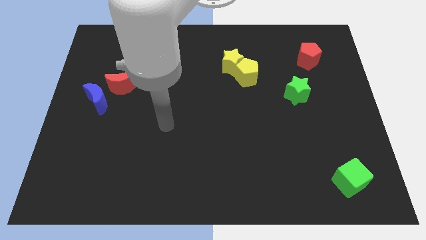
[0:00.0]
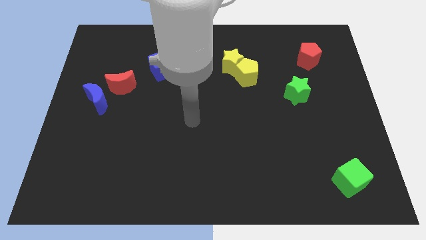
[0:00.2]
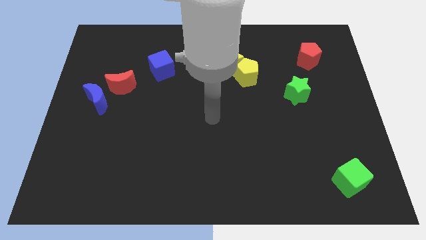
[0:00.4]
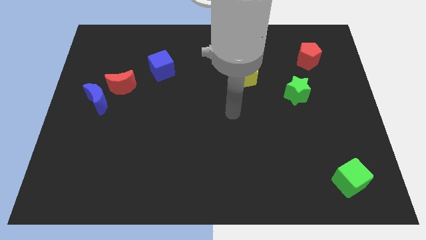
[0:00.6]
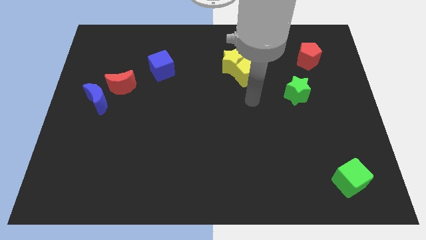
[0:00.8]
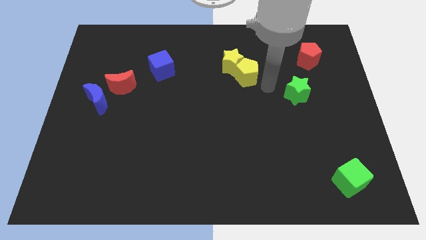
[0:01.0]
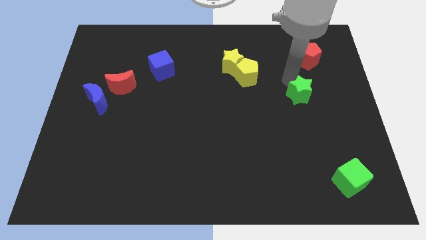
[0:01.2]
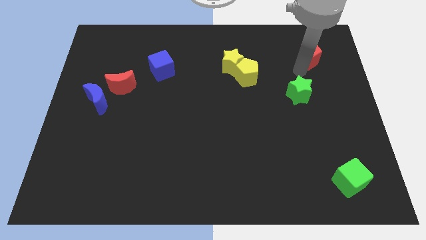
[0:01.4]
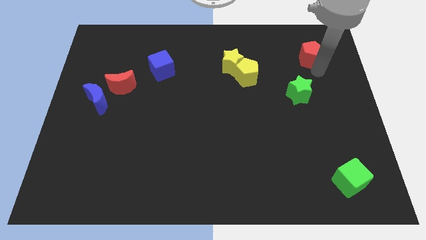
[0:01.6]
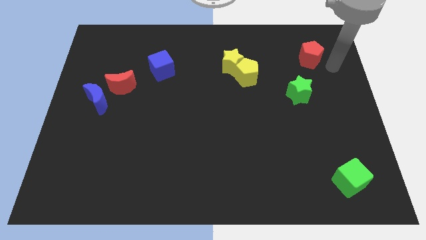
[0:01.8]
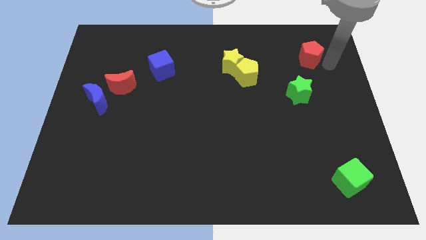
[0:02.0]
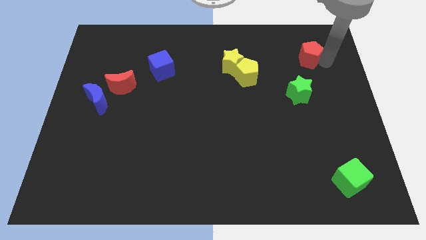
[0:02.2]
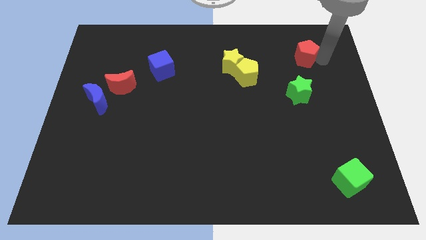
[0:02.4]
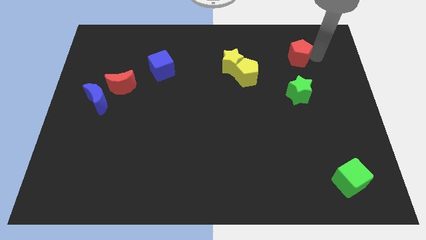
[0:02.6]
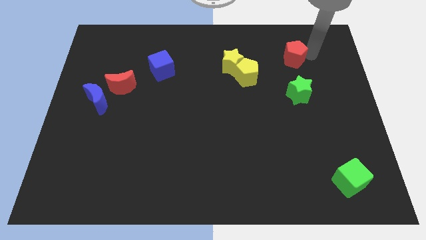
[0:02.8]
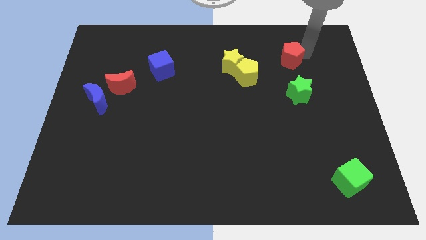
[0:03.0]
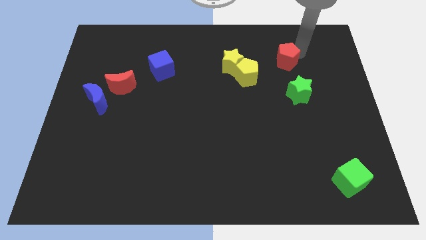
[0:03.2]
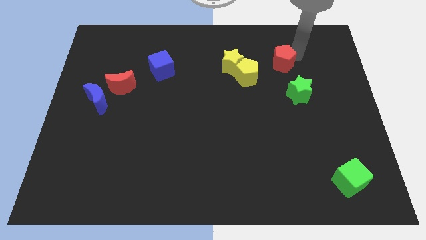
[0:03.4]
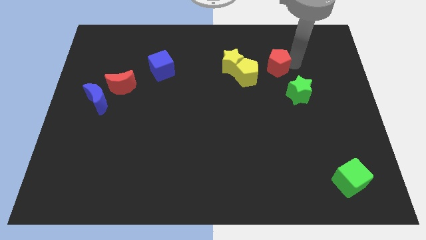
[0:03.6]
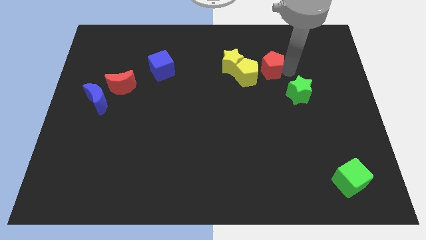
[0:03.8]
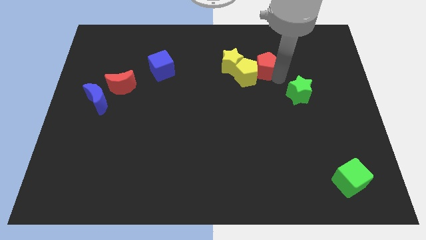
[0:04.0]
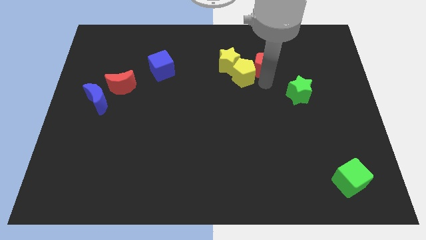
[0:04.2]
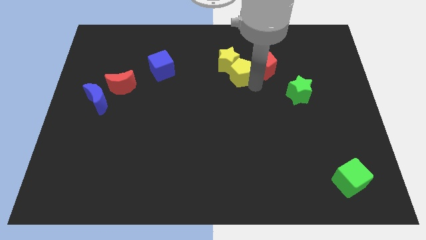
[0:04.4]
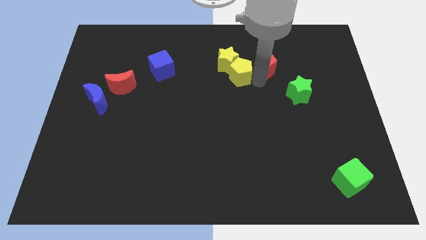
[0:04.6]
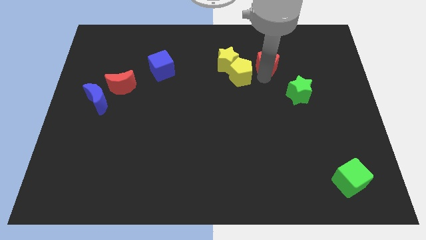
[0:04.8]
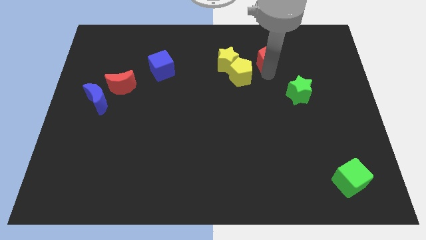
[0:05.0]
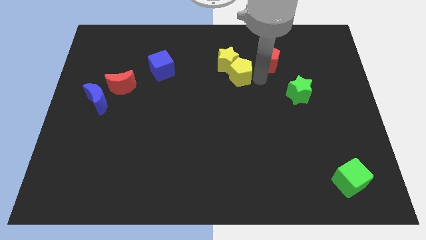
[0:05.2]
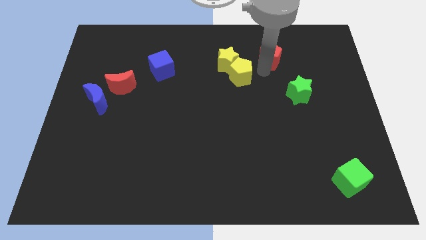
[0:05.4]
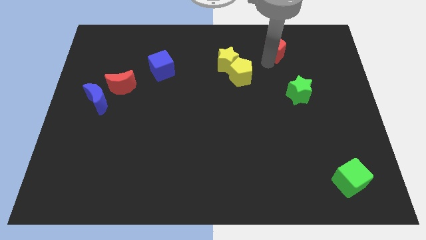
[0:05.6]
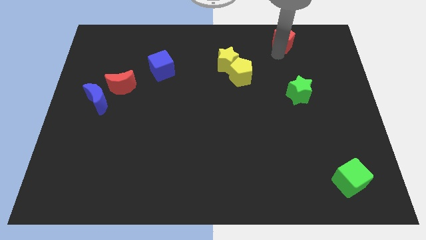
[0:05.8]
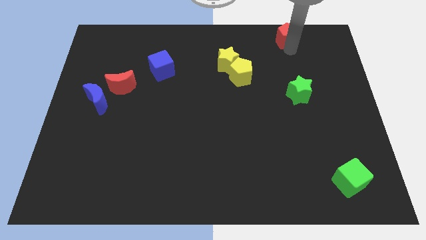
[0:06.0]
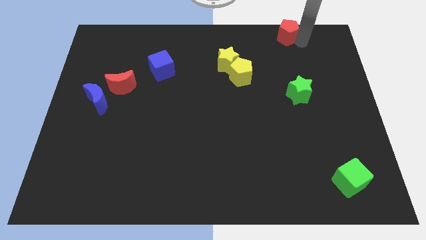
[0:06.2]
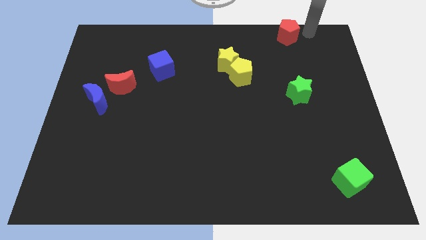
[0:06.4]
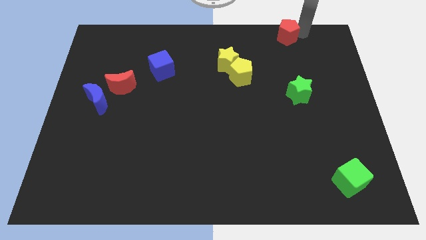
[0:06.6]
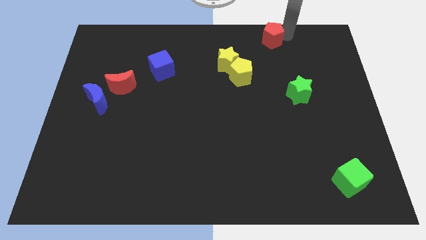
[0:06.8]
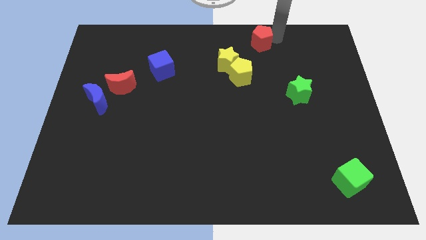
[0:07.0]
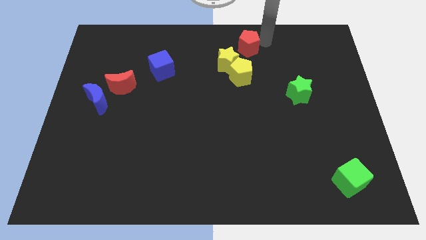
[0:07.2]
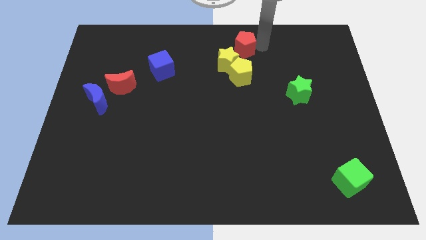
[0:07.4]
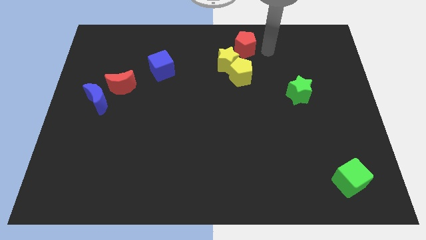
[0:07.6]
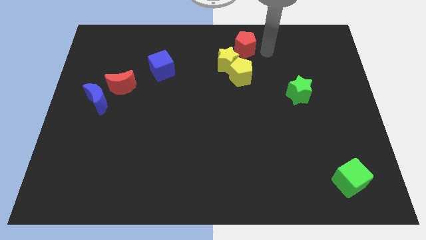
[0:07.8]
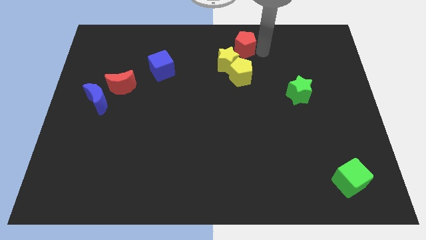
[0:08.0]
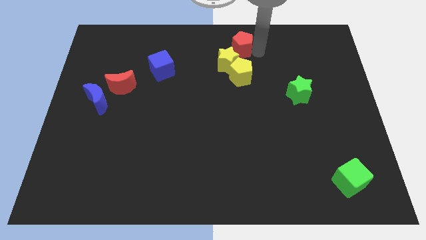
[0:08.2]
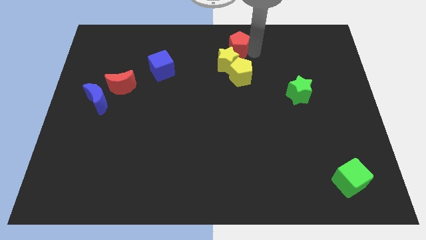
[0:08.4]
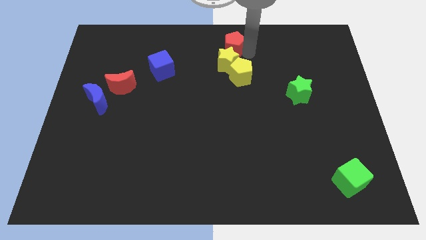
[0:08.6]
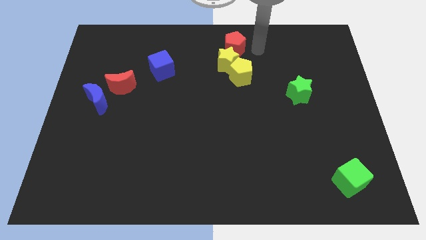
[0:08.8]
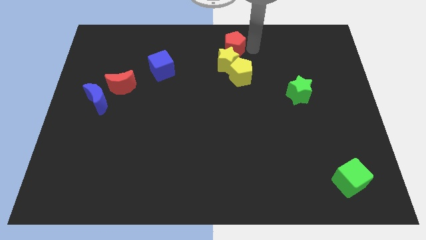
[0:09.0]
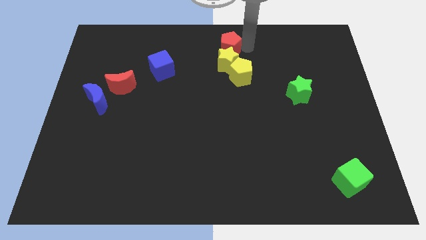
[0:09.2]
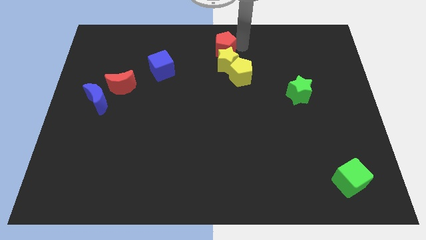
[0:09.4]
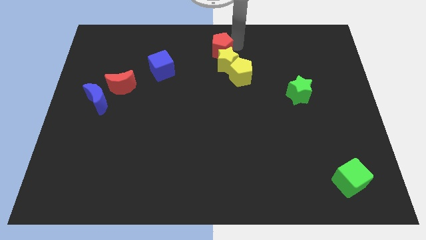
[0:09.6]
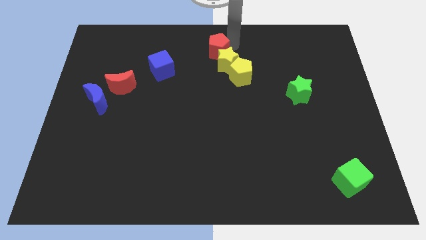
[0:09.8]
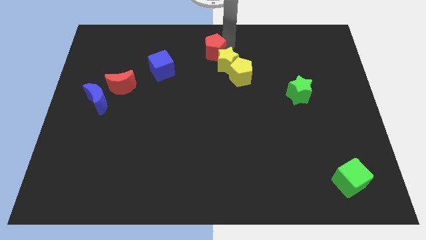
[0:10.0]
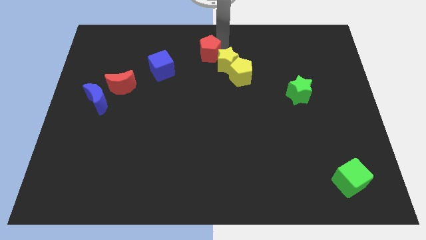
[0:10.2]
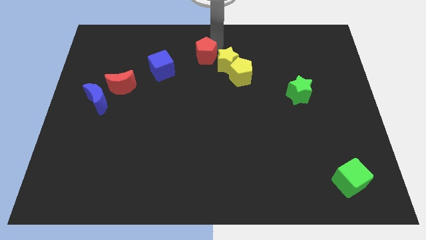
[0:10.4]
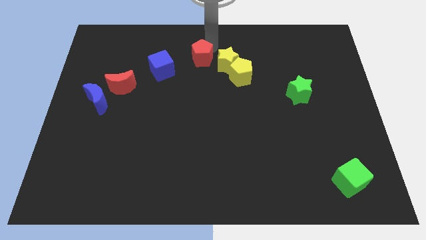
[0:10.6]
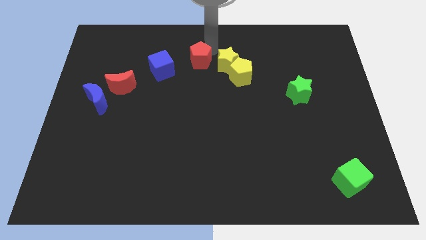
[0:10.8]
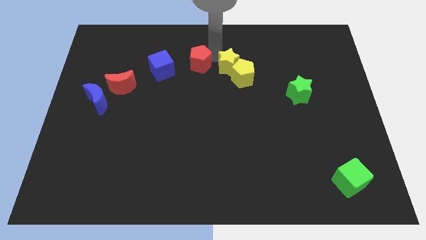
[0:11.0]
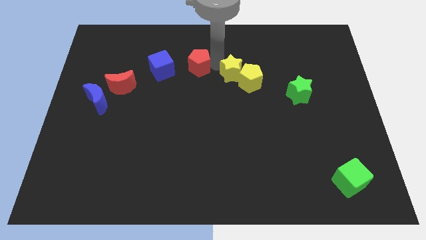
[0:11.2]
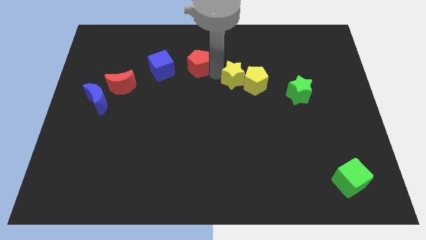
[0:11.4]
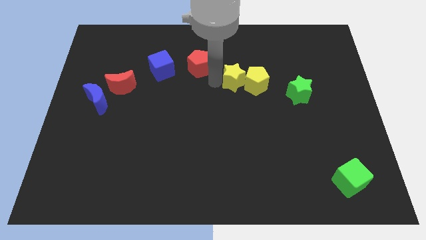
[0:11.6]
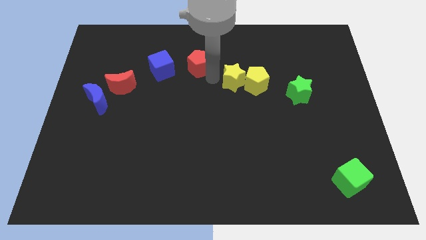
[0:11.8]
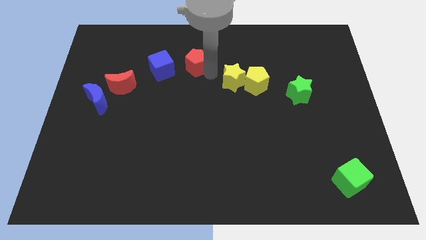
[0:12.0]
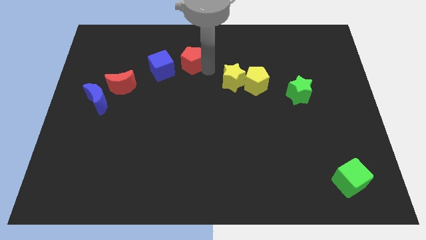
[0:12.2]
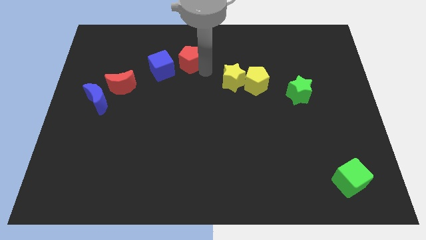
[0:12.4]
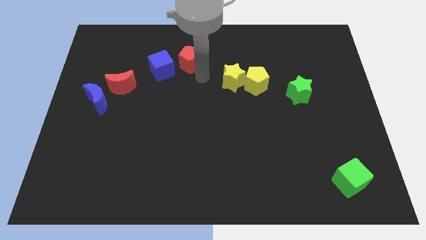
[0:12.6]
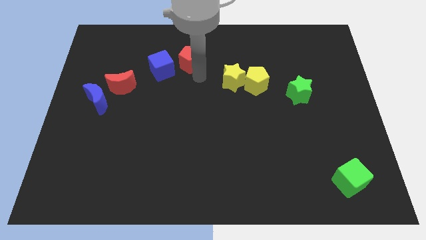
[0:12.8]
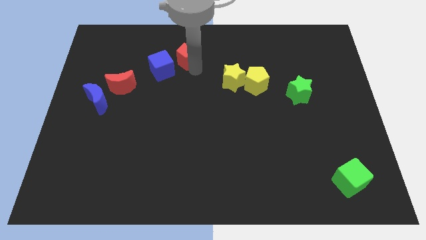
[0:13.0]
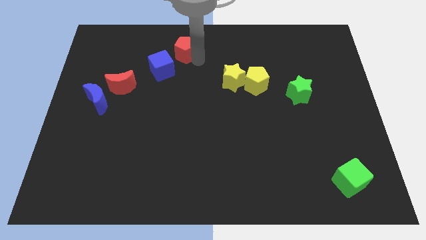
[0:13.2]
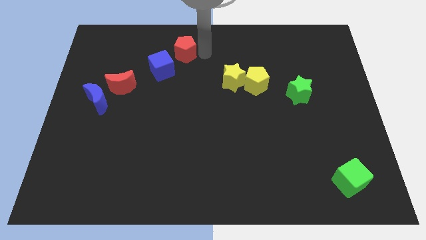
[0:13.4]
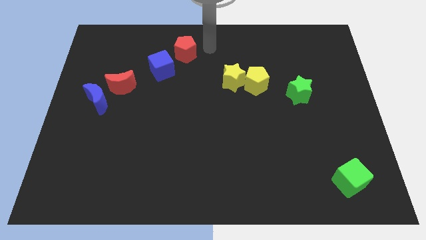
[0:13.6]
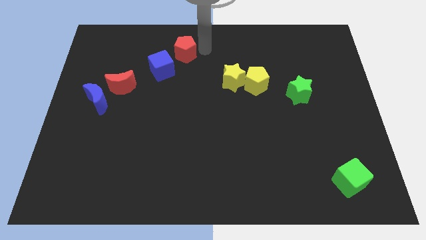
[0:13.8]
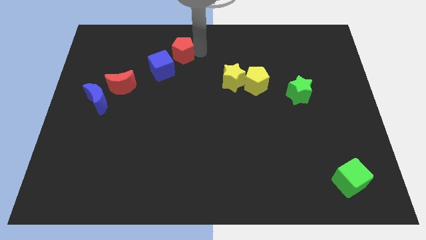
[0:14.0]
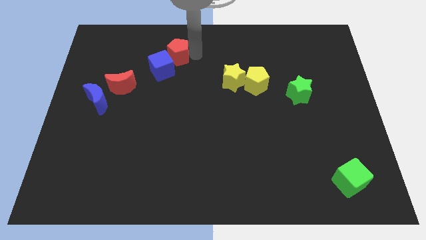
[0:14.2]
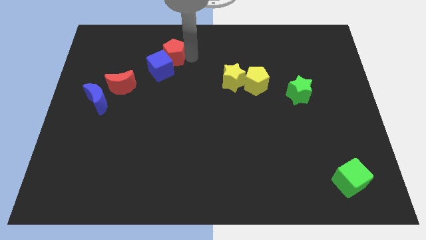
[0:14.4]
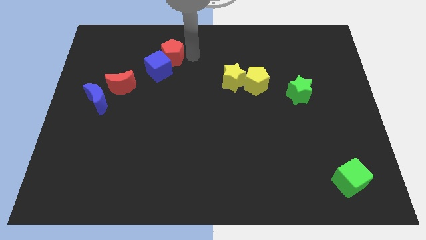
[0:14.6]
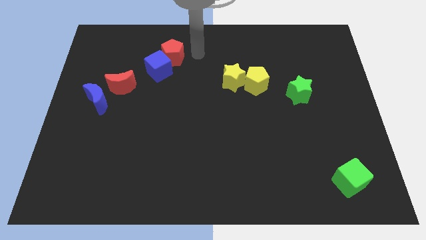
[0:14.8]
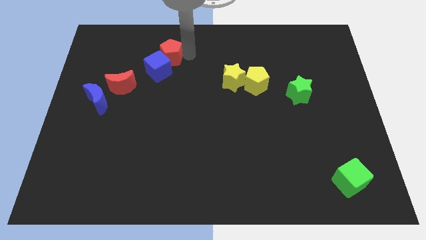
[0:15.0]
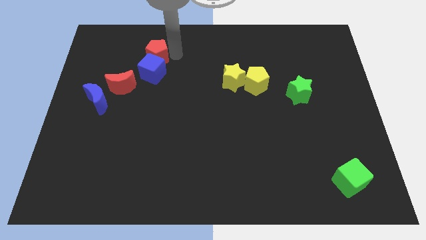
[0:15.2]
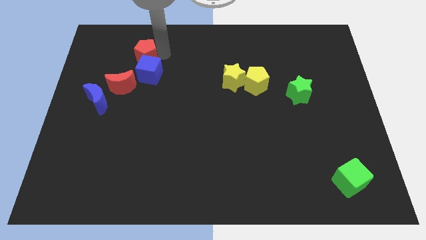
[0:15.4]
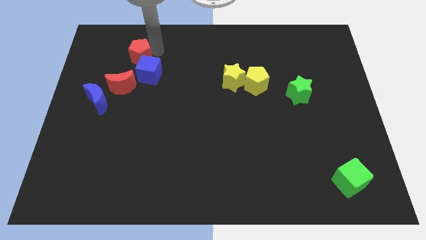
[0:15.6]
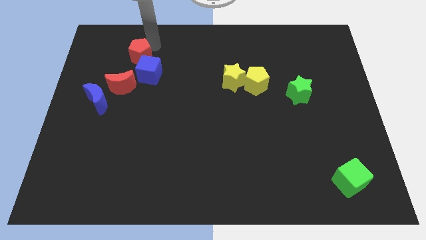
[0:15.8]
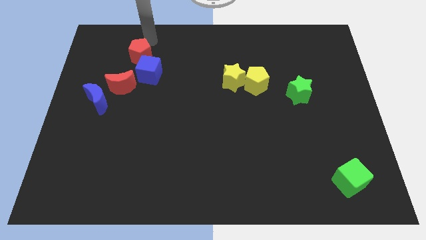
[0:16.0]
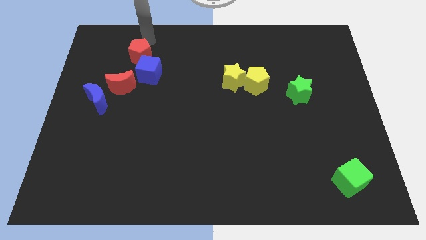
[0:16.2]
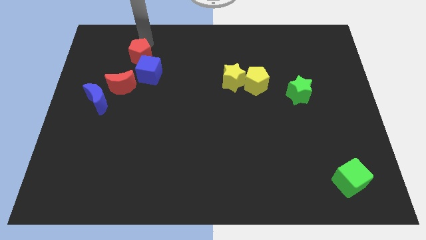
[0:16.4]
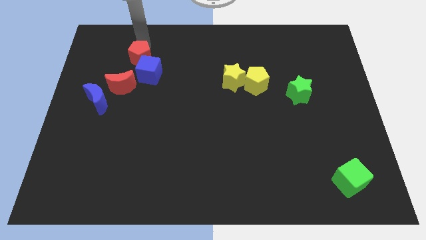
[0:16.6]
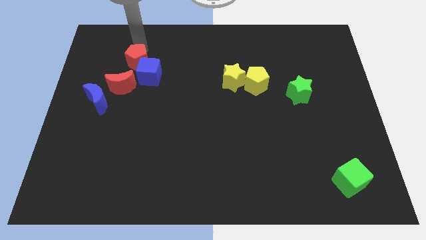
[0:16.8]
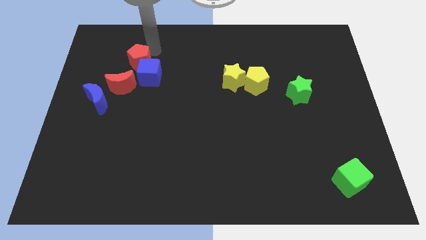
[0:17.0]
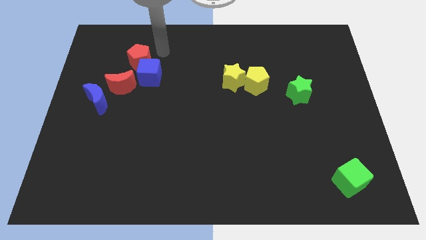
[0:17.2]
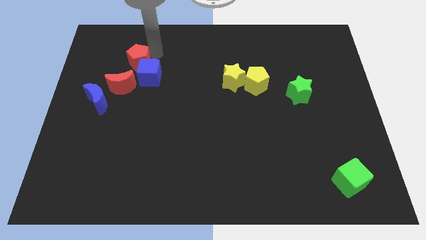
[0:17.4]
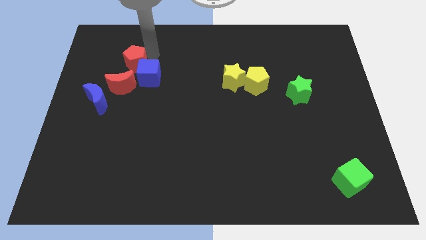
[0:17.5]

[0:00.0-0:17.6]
push the red pentagon to the left side of the blue cube
